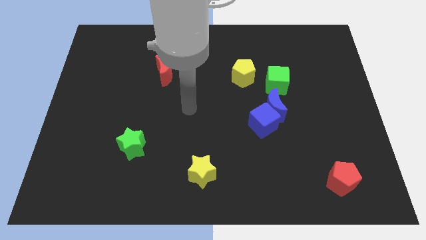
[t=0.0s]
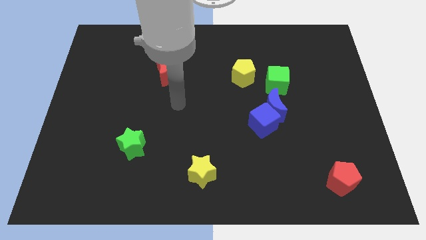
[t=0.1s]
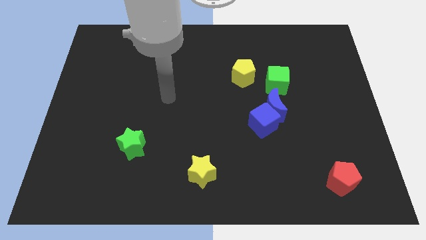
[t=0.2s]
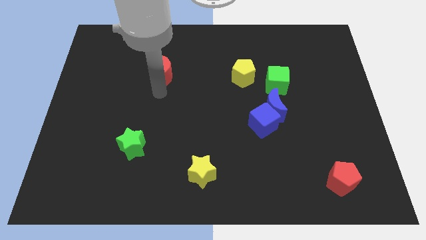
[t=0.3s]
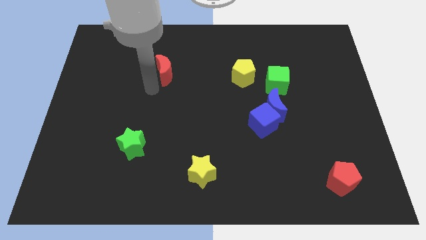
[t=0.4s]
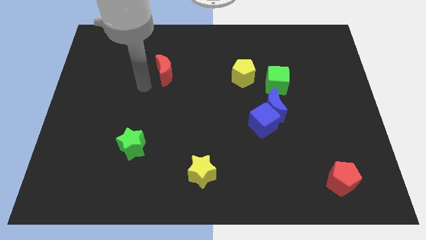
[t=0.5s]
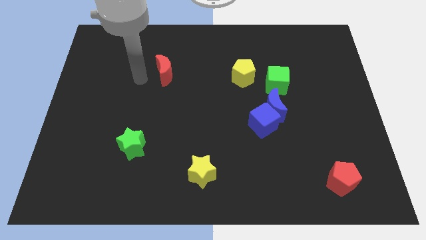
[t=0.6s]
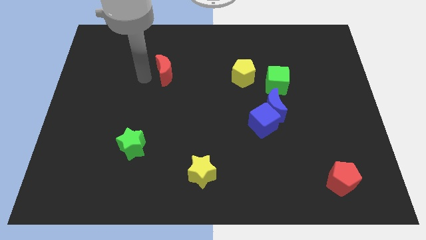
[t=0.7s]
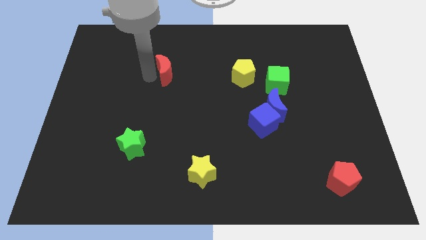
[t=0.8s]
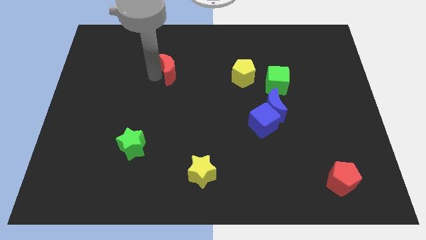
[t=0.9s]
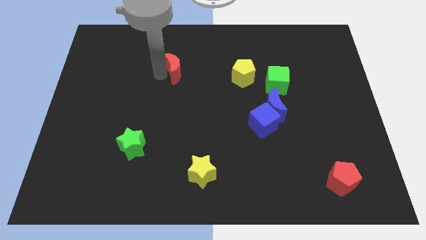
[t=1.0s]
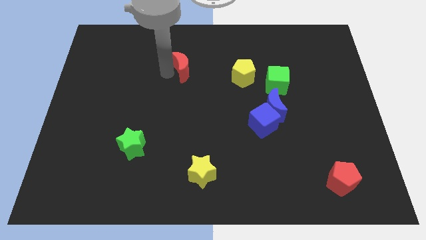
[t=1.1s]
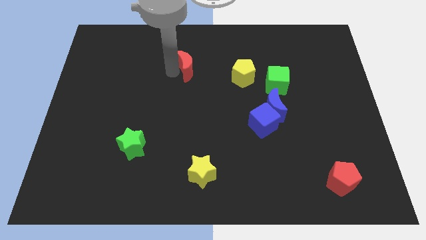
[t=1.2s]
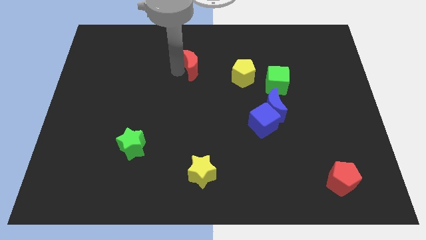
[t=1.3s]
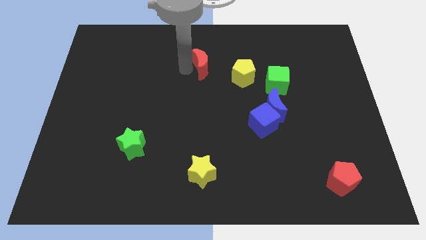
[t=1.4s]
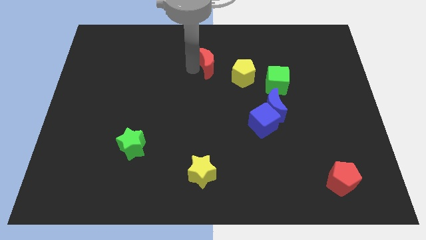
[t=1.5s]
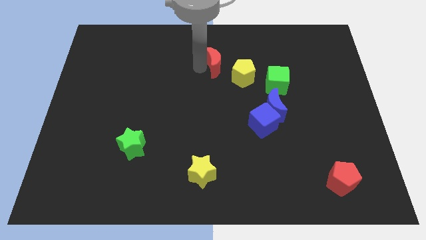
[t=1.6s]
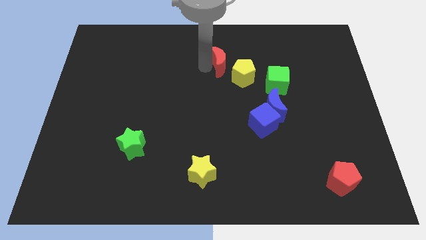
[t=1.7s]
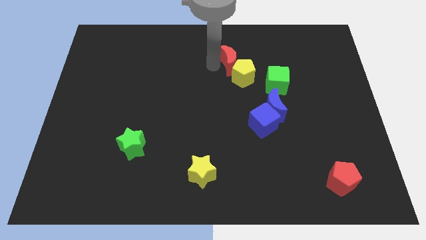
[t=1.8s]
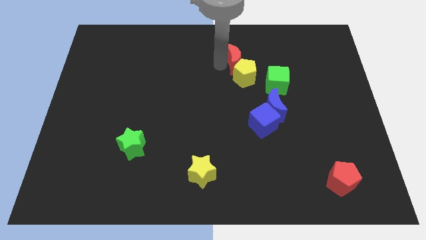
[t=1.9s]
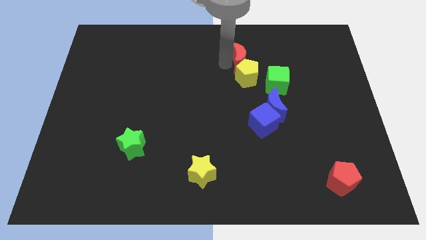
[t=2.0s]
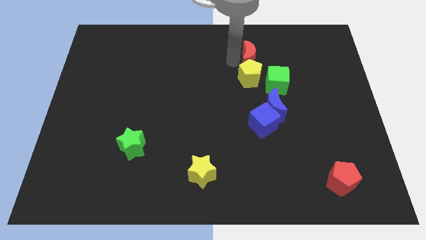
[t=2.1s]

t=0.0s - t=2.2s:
move the red moon right

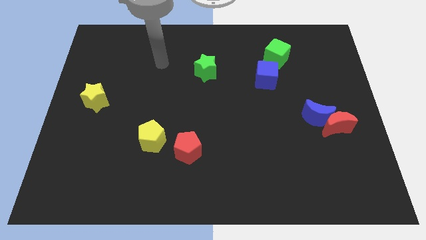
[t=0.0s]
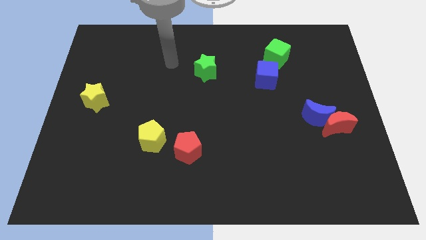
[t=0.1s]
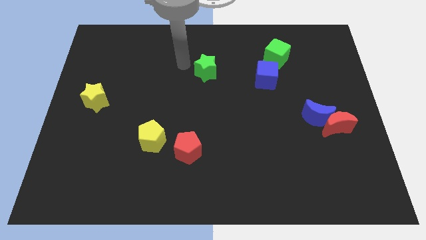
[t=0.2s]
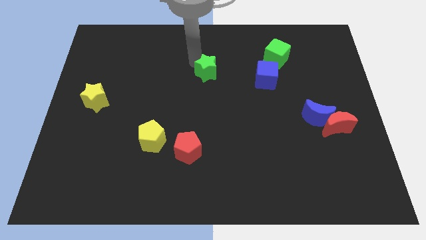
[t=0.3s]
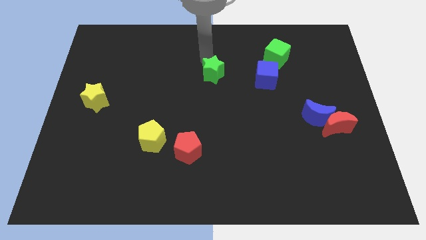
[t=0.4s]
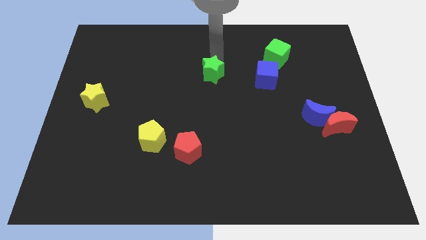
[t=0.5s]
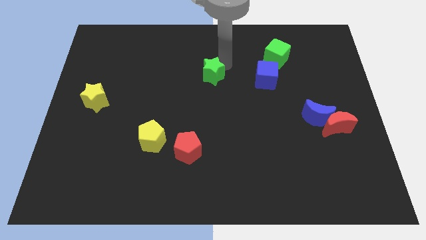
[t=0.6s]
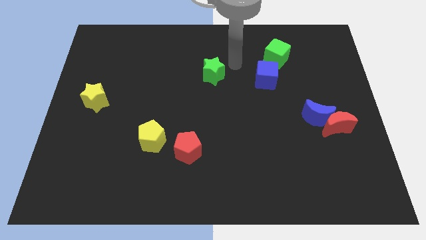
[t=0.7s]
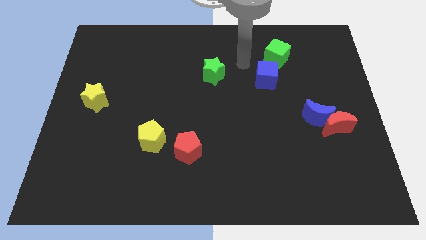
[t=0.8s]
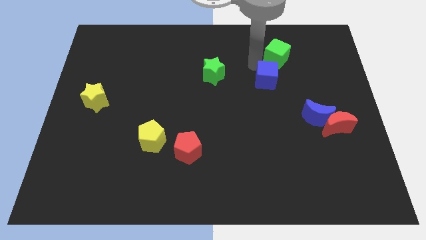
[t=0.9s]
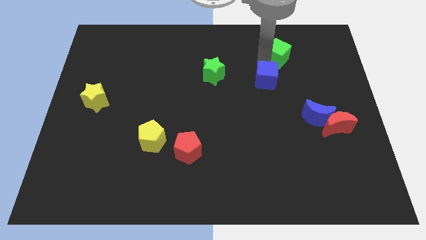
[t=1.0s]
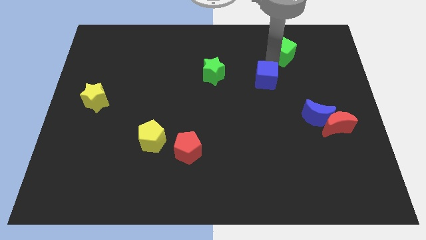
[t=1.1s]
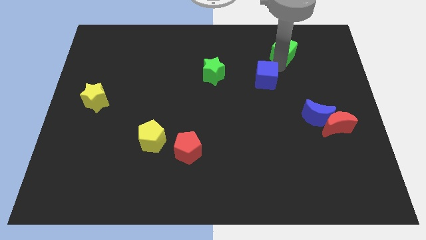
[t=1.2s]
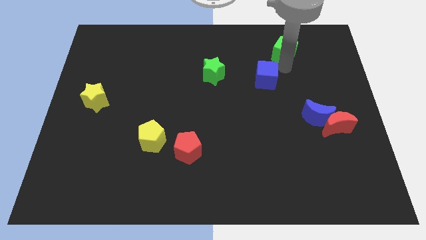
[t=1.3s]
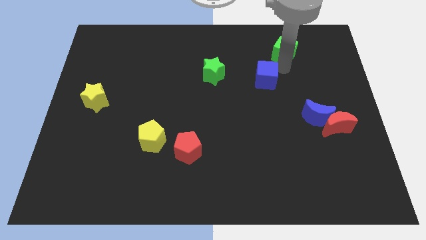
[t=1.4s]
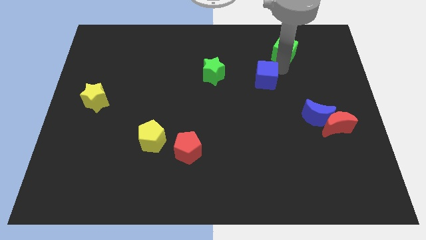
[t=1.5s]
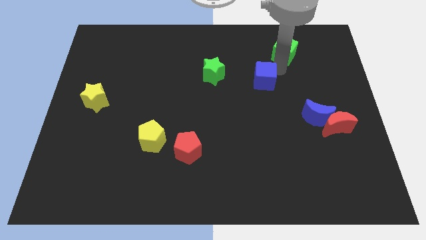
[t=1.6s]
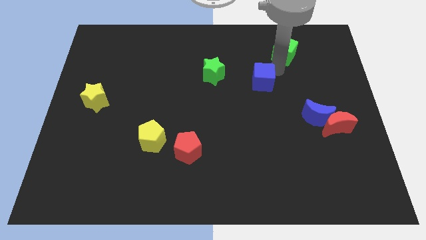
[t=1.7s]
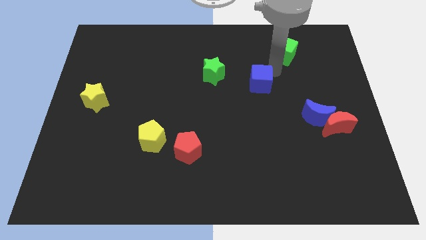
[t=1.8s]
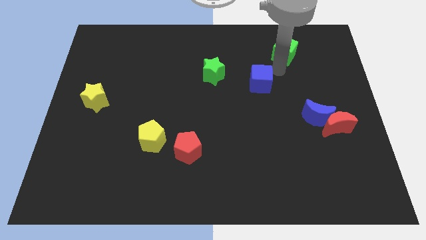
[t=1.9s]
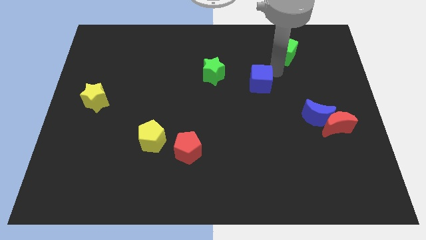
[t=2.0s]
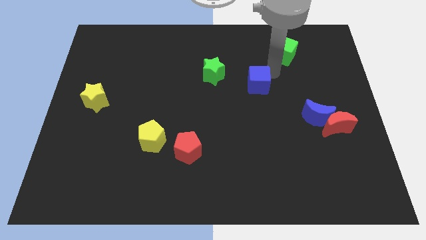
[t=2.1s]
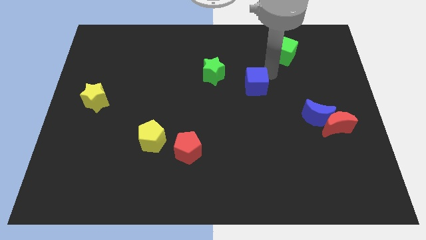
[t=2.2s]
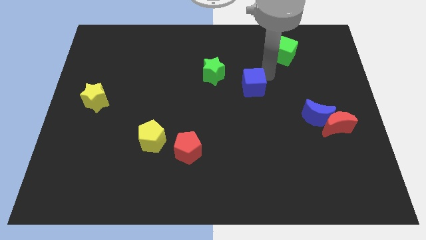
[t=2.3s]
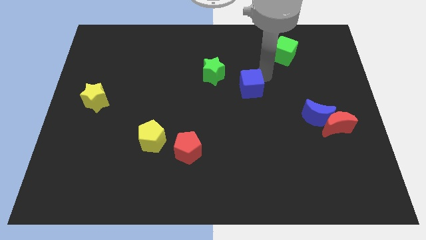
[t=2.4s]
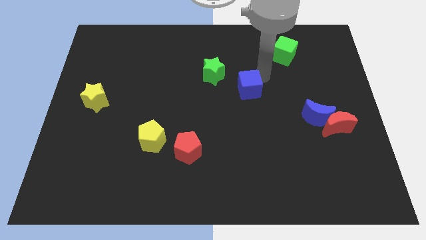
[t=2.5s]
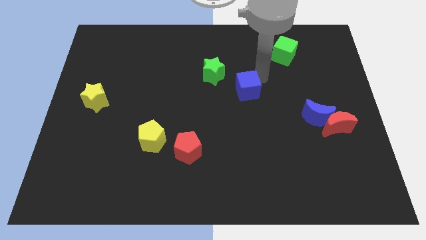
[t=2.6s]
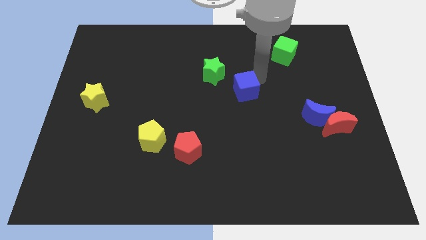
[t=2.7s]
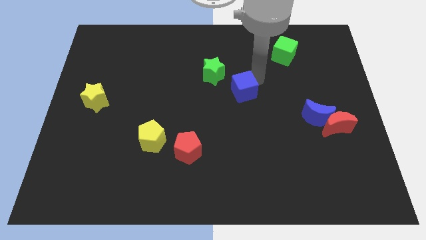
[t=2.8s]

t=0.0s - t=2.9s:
slightly slide the blue cube down and left

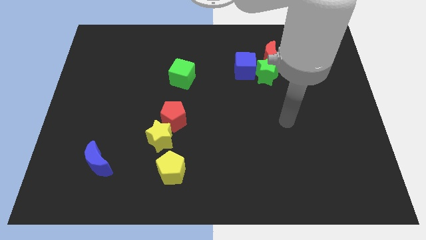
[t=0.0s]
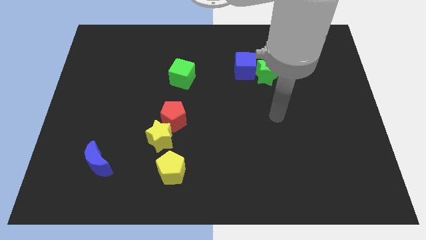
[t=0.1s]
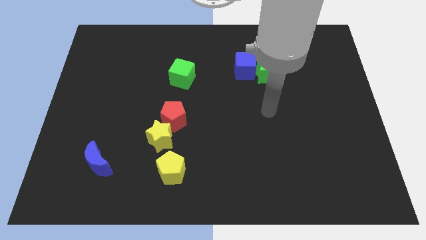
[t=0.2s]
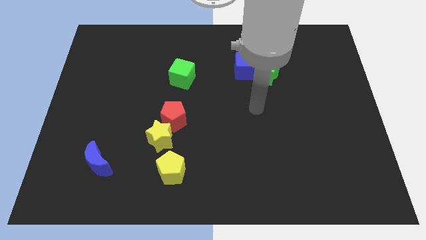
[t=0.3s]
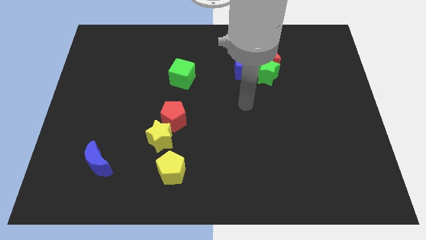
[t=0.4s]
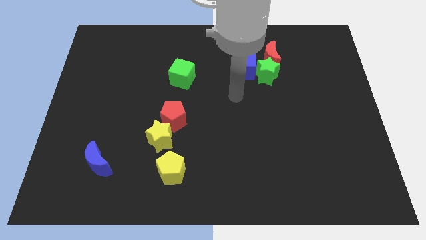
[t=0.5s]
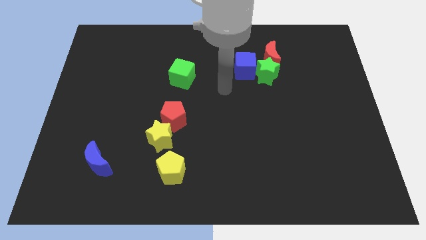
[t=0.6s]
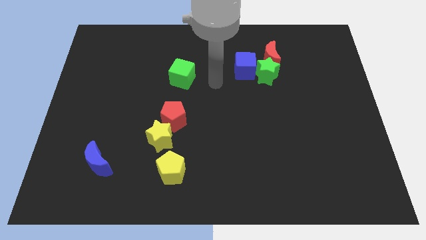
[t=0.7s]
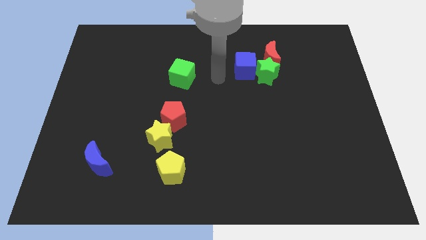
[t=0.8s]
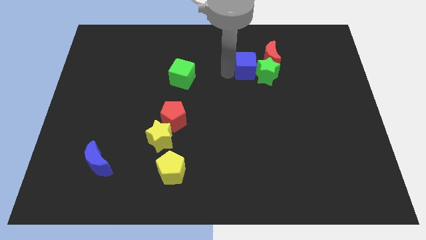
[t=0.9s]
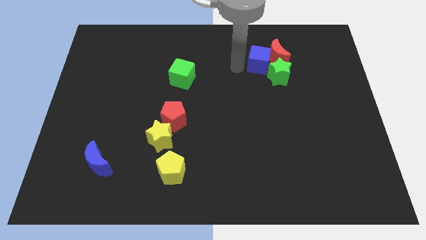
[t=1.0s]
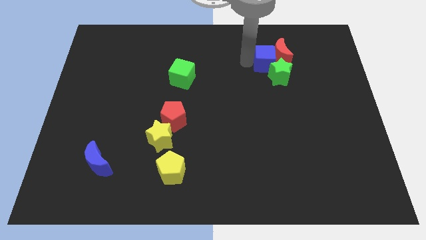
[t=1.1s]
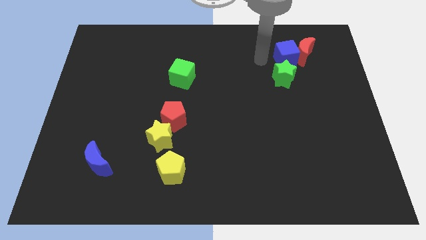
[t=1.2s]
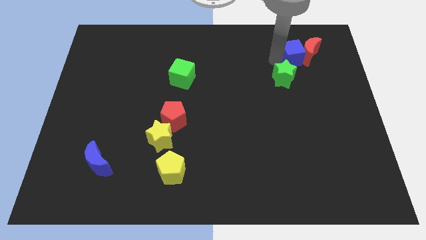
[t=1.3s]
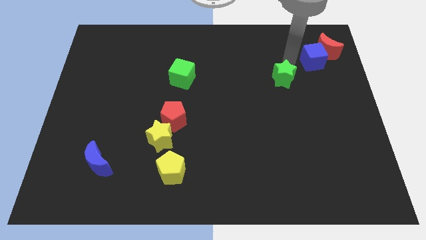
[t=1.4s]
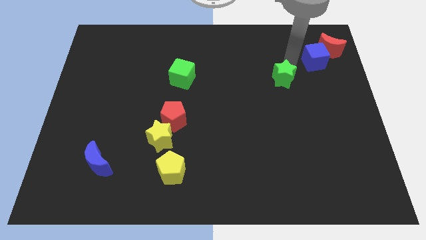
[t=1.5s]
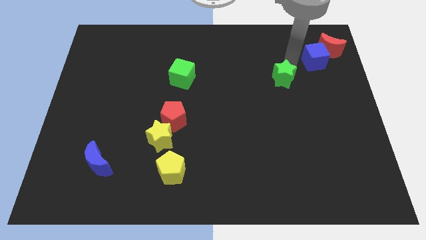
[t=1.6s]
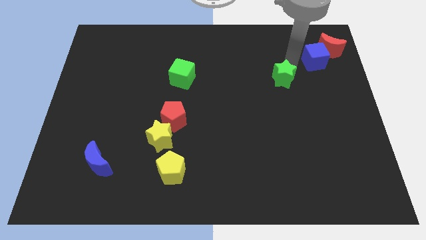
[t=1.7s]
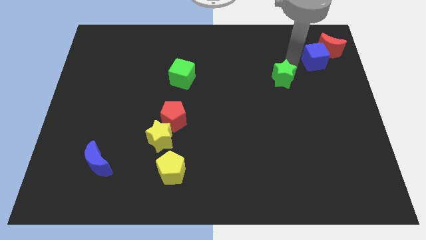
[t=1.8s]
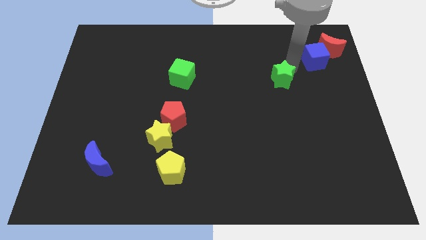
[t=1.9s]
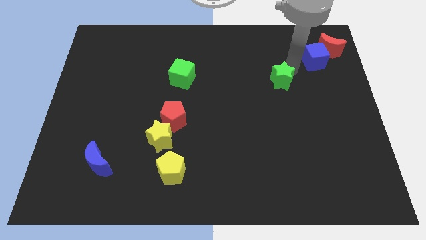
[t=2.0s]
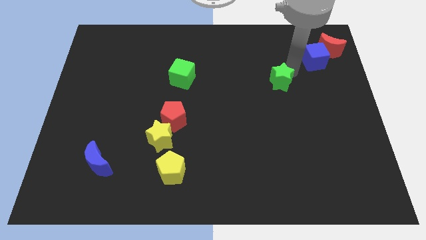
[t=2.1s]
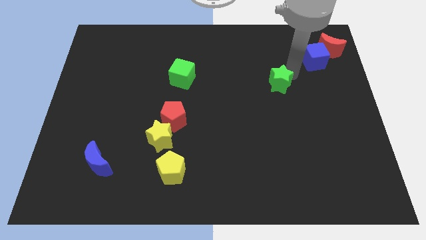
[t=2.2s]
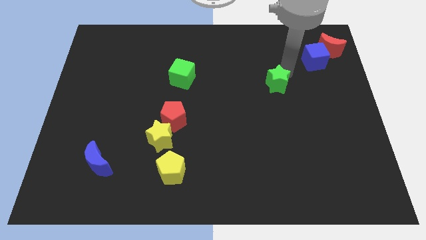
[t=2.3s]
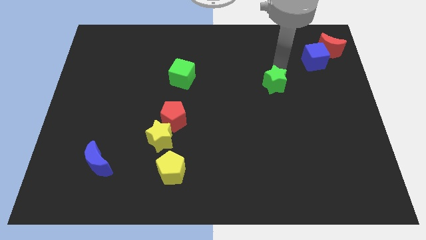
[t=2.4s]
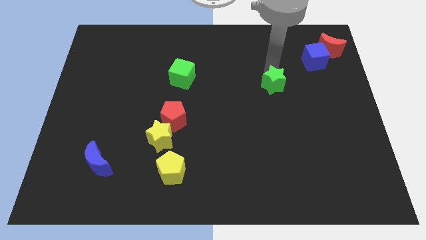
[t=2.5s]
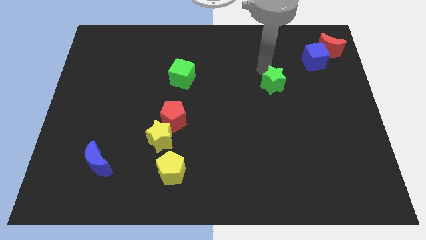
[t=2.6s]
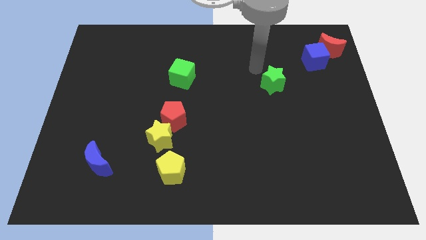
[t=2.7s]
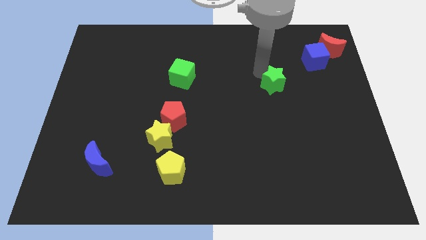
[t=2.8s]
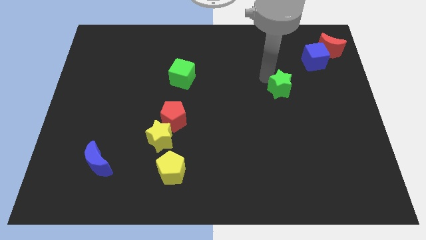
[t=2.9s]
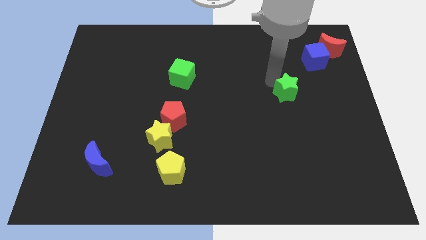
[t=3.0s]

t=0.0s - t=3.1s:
push the green star downwards and then to the right slightly
